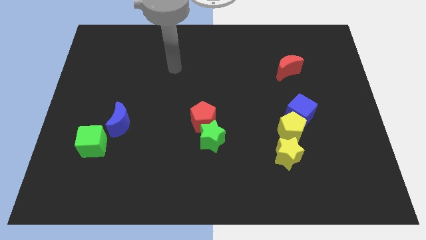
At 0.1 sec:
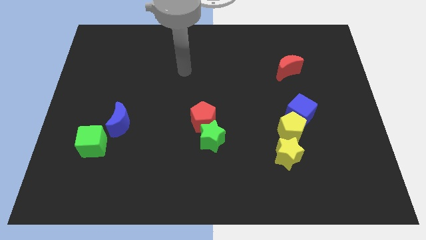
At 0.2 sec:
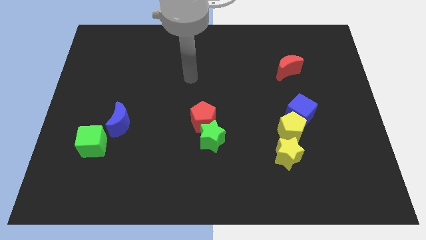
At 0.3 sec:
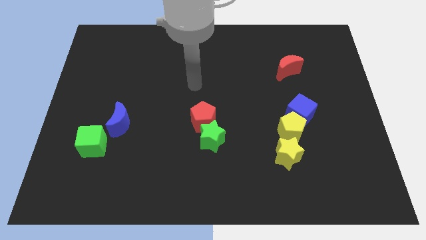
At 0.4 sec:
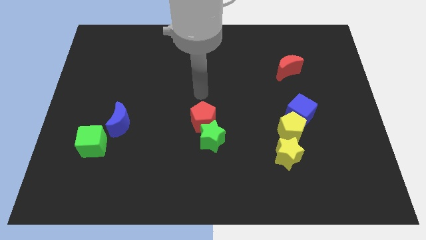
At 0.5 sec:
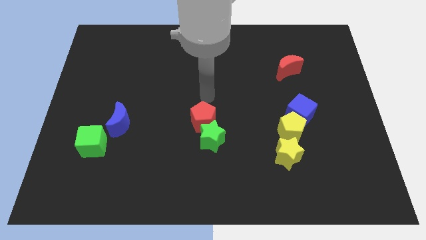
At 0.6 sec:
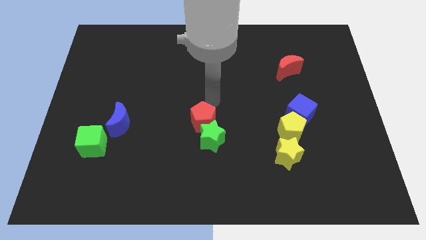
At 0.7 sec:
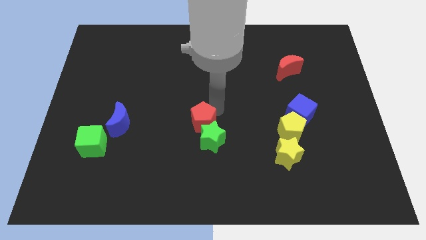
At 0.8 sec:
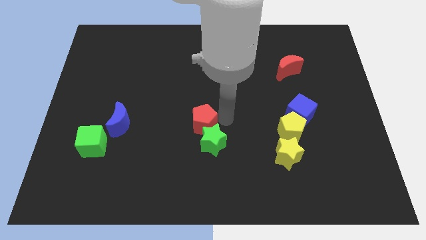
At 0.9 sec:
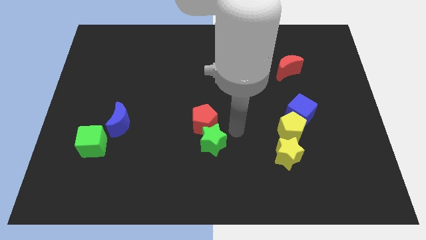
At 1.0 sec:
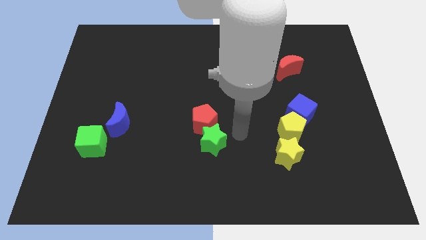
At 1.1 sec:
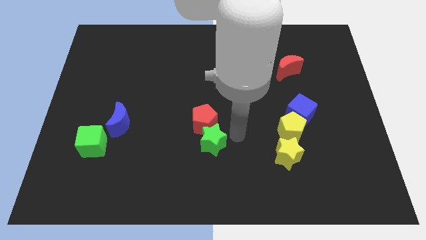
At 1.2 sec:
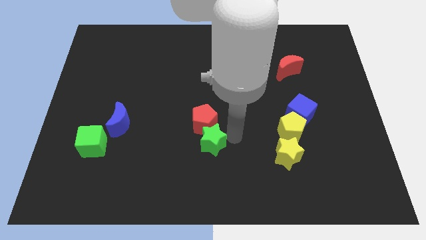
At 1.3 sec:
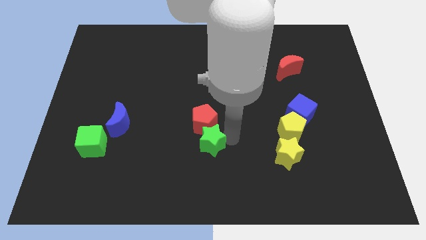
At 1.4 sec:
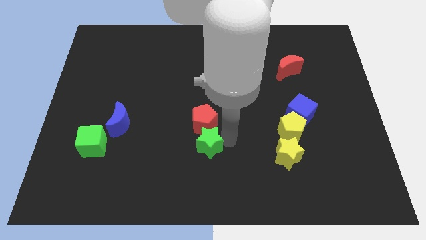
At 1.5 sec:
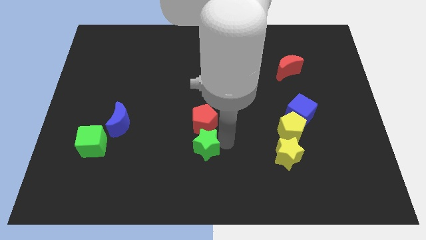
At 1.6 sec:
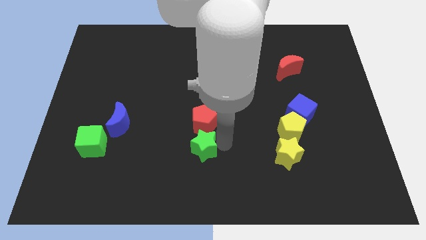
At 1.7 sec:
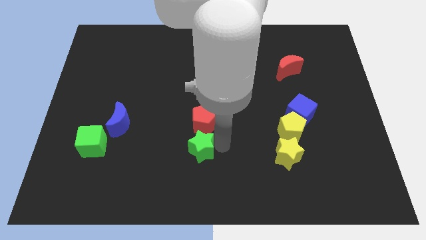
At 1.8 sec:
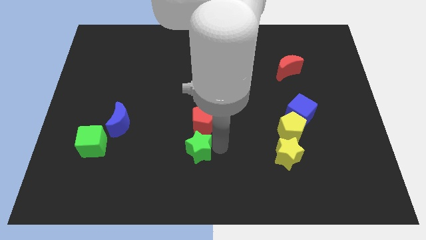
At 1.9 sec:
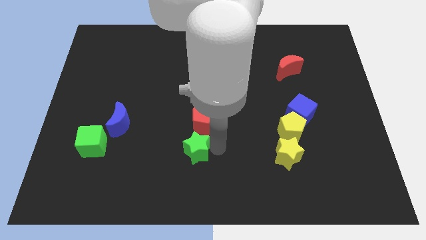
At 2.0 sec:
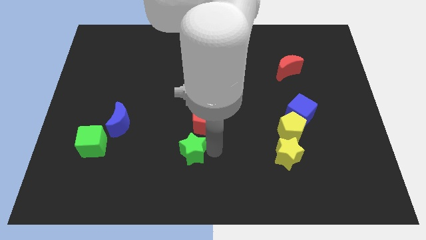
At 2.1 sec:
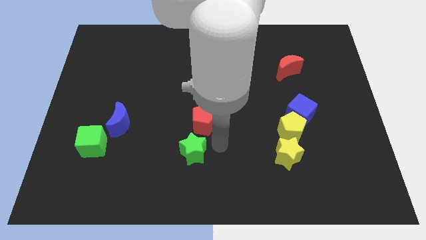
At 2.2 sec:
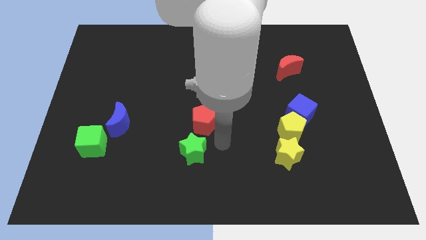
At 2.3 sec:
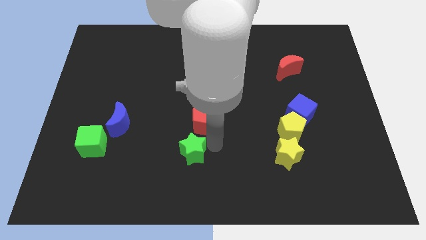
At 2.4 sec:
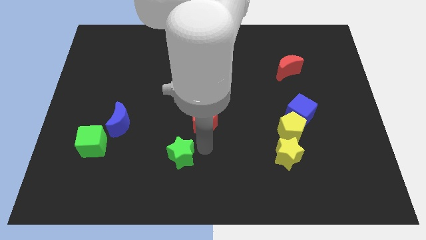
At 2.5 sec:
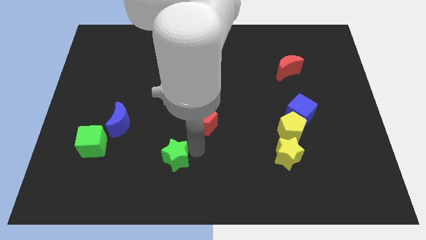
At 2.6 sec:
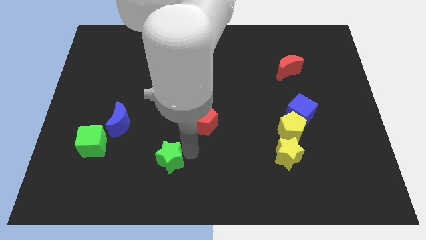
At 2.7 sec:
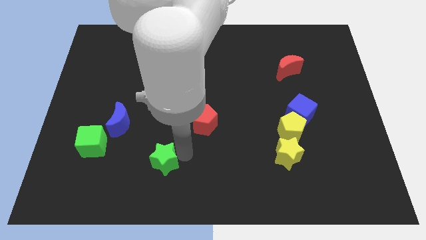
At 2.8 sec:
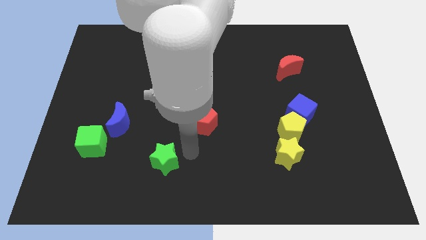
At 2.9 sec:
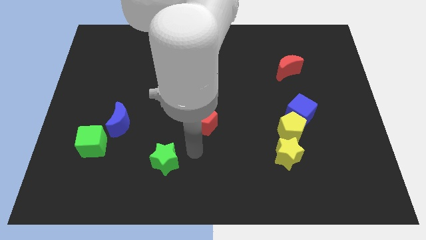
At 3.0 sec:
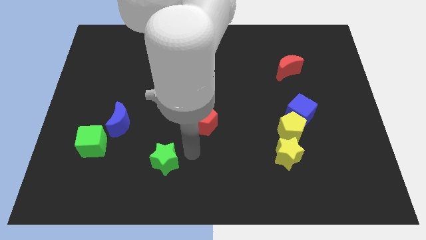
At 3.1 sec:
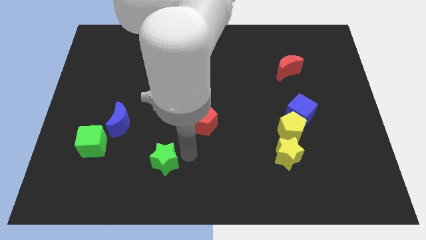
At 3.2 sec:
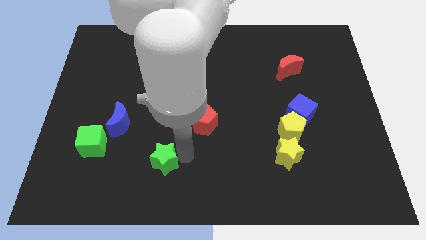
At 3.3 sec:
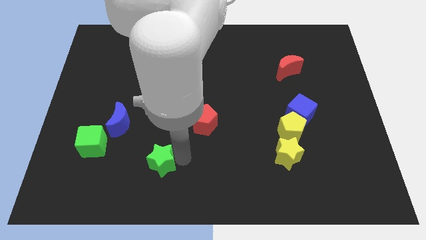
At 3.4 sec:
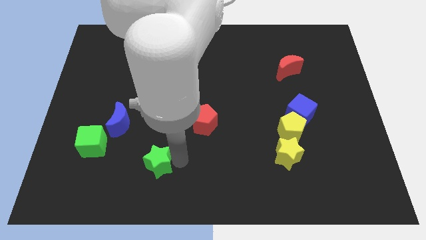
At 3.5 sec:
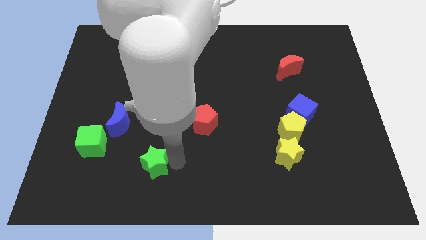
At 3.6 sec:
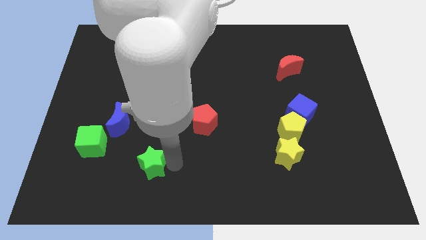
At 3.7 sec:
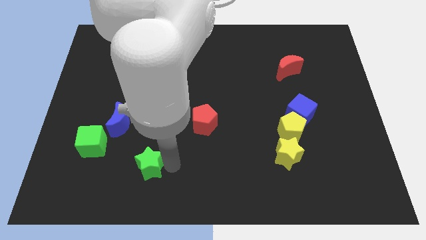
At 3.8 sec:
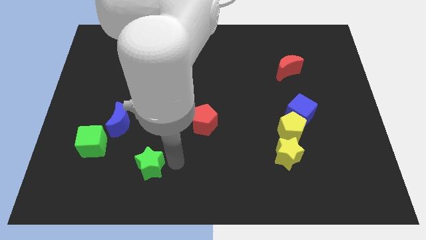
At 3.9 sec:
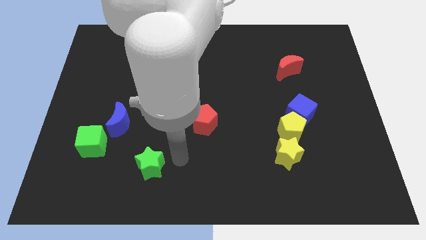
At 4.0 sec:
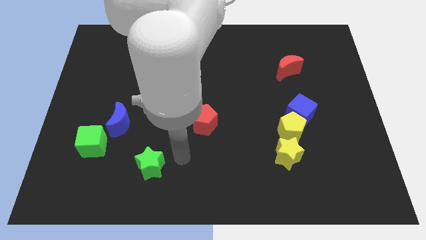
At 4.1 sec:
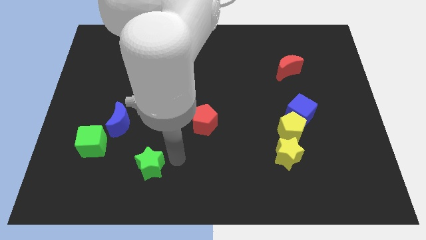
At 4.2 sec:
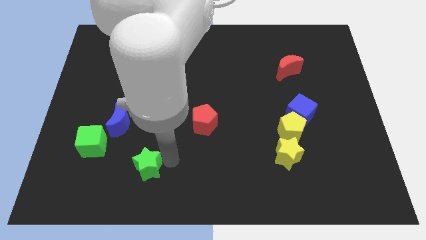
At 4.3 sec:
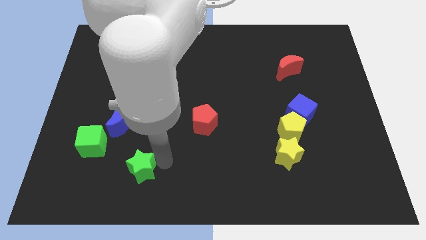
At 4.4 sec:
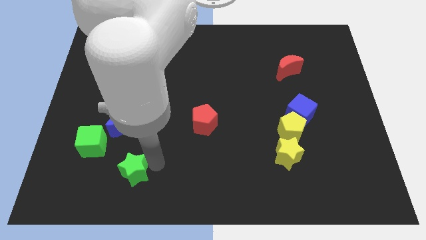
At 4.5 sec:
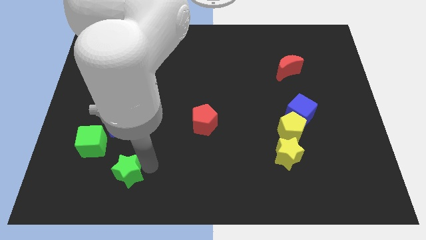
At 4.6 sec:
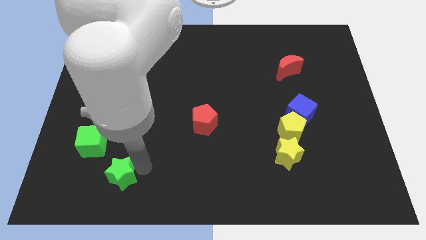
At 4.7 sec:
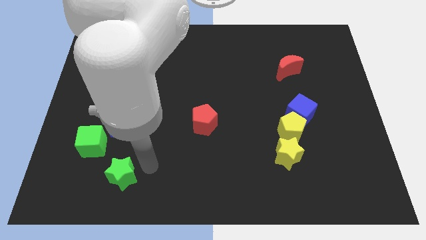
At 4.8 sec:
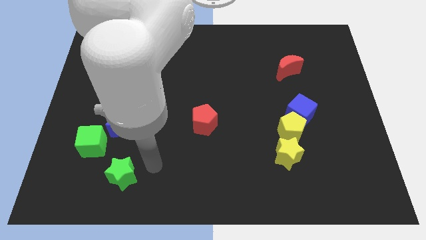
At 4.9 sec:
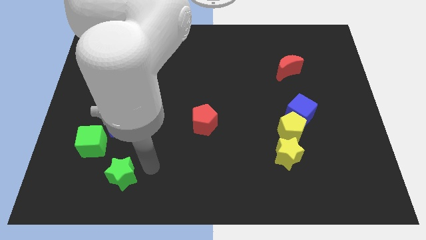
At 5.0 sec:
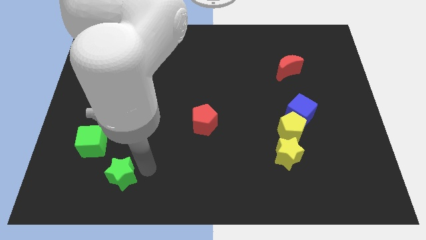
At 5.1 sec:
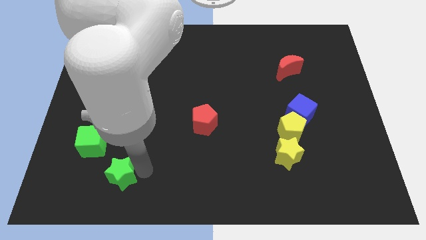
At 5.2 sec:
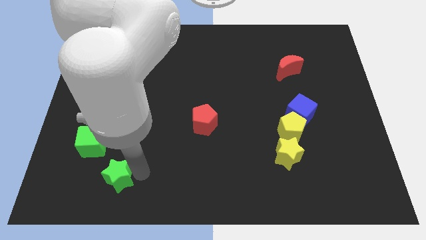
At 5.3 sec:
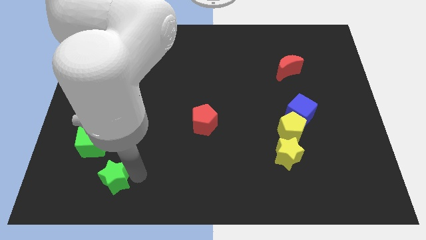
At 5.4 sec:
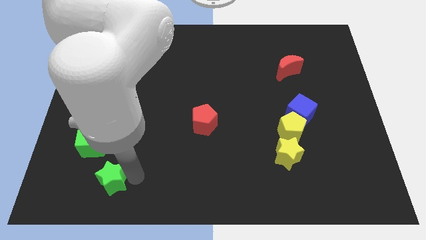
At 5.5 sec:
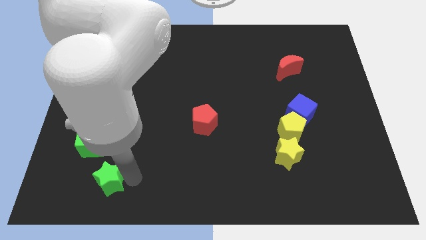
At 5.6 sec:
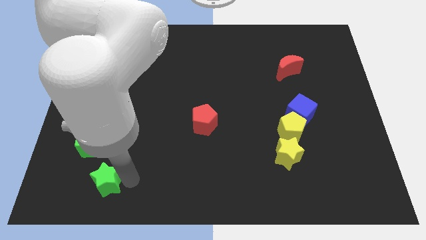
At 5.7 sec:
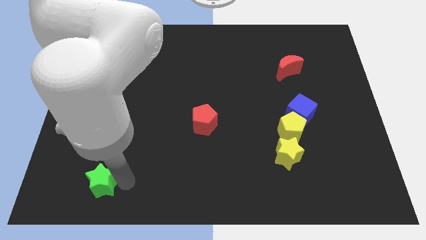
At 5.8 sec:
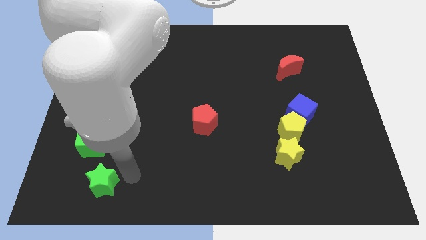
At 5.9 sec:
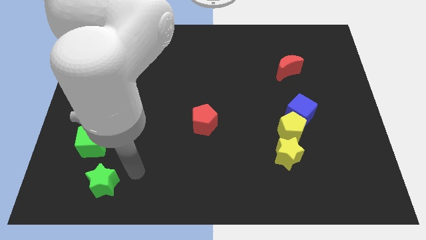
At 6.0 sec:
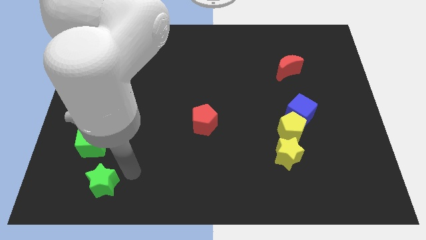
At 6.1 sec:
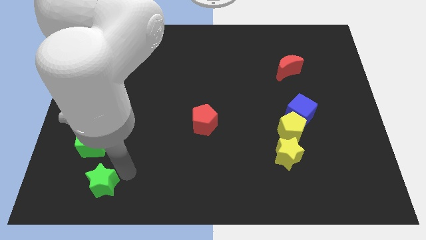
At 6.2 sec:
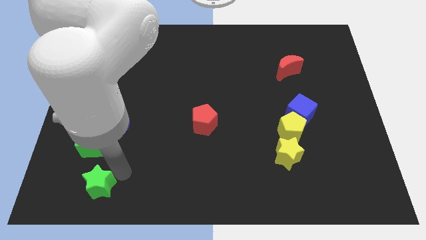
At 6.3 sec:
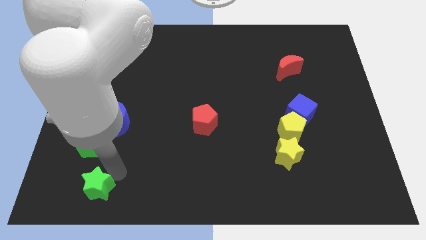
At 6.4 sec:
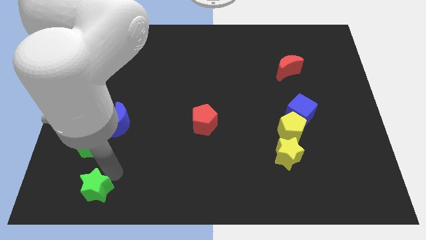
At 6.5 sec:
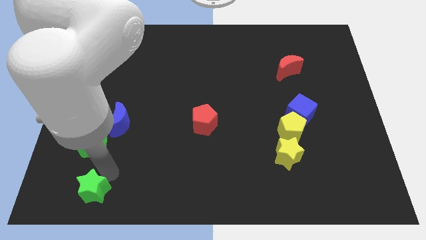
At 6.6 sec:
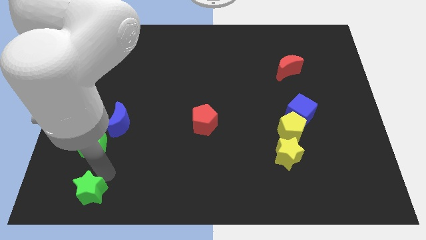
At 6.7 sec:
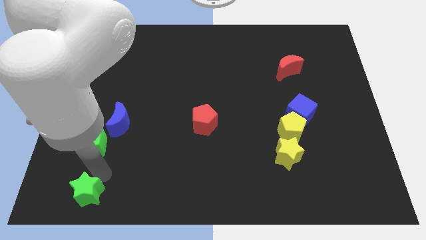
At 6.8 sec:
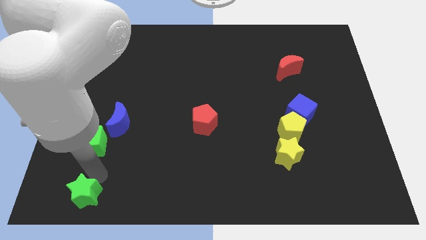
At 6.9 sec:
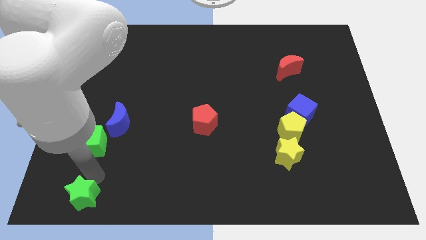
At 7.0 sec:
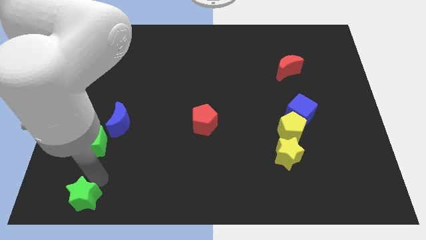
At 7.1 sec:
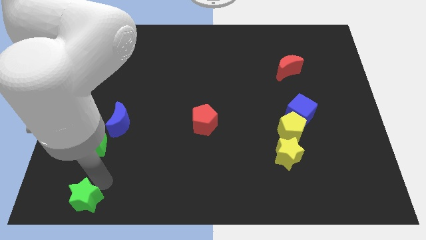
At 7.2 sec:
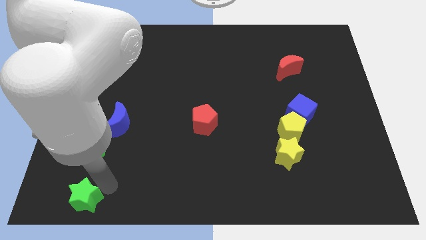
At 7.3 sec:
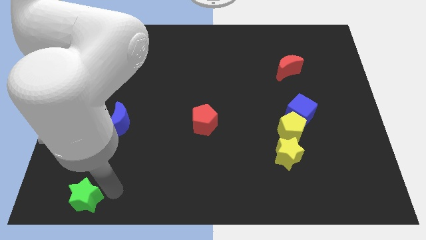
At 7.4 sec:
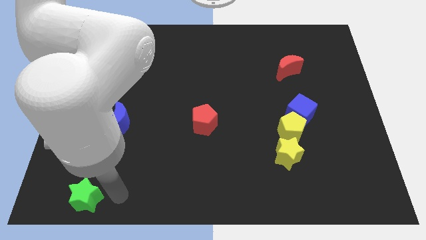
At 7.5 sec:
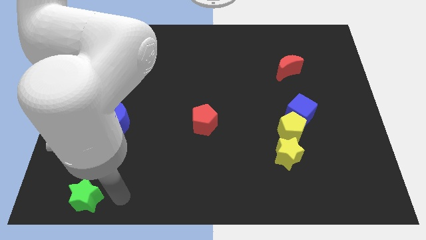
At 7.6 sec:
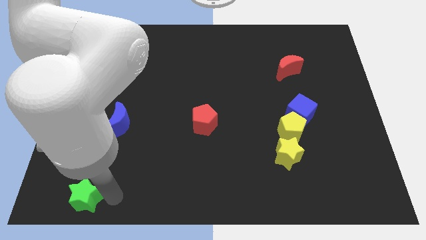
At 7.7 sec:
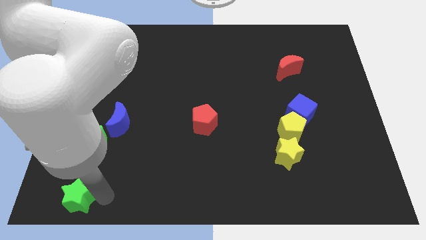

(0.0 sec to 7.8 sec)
put the green star to the bottom left
